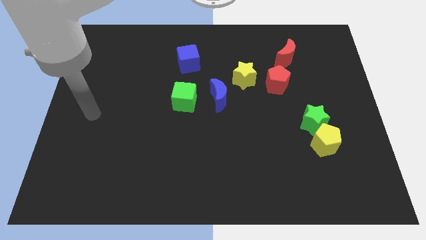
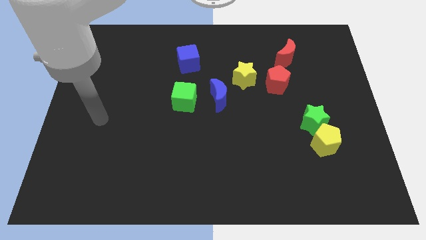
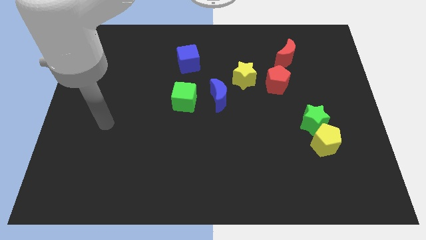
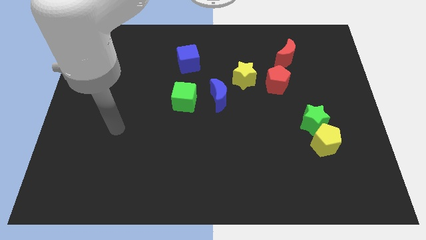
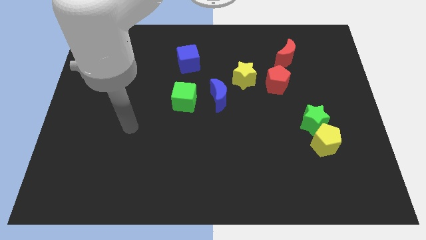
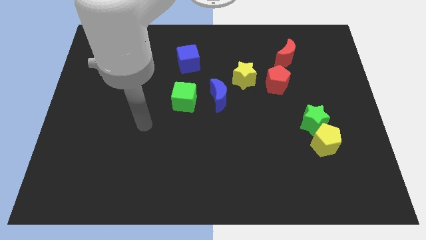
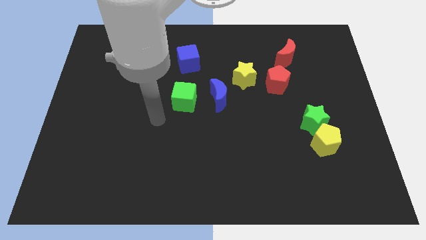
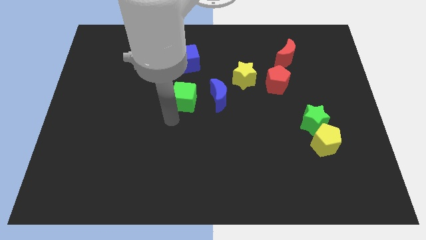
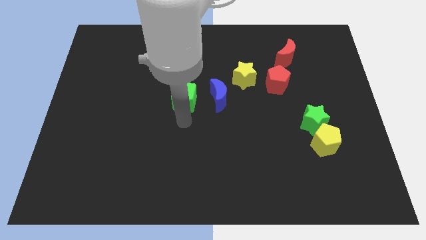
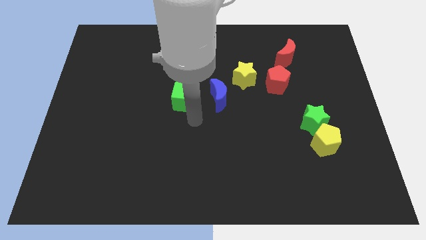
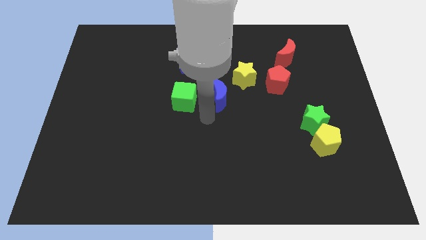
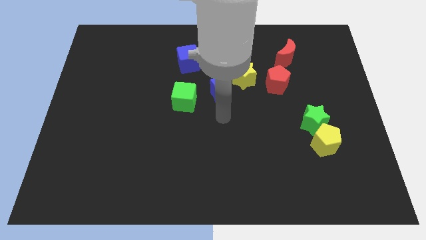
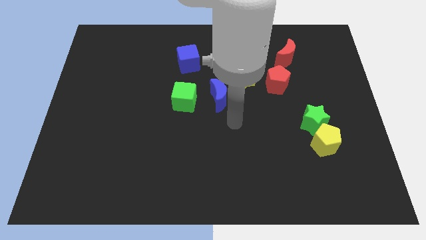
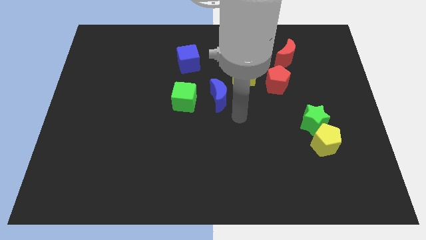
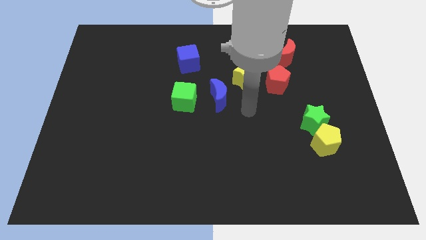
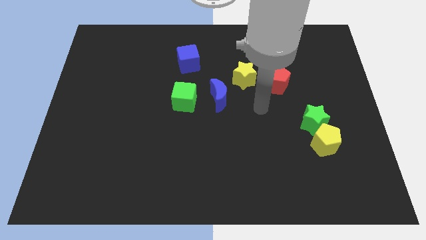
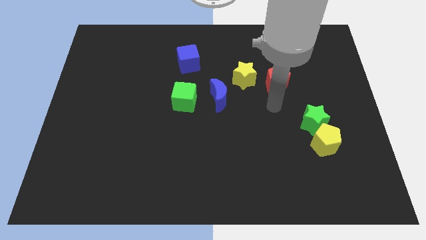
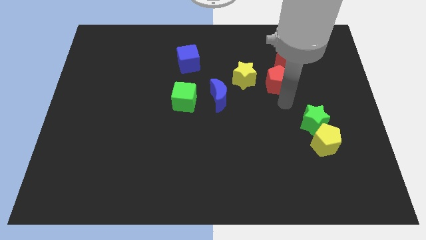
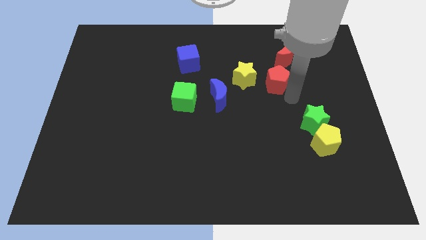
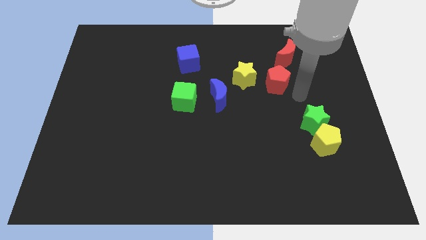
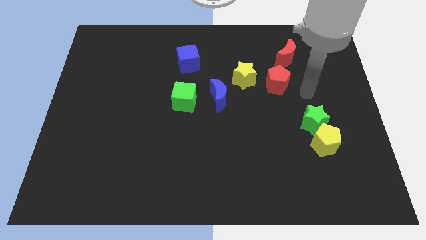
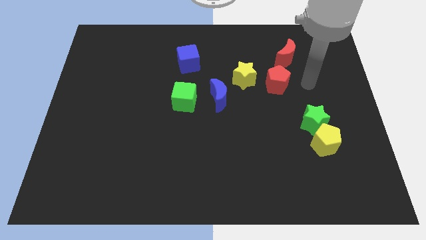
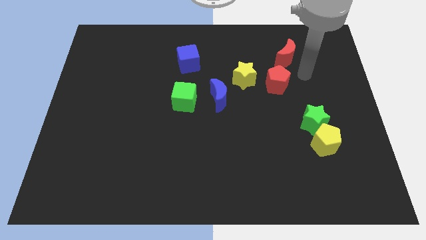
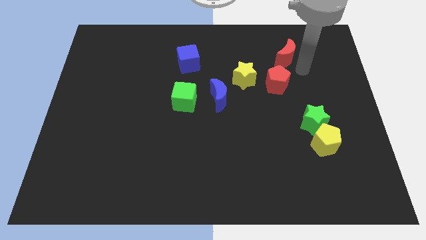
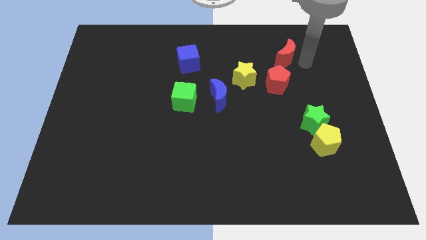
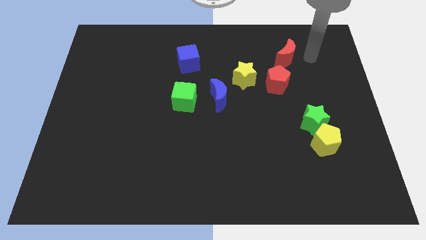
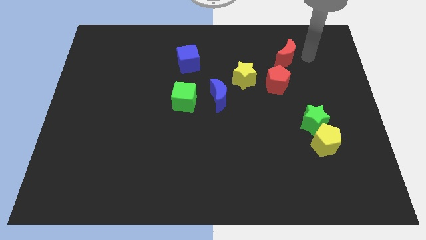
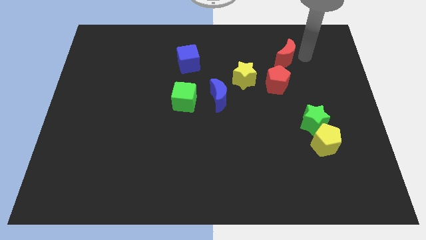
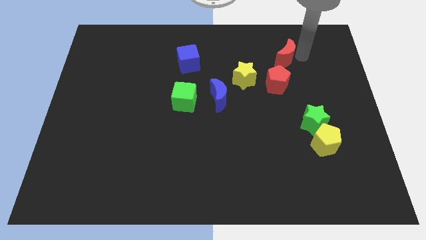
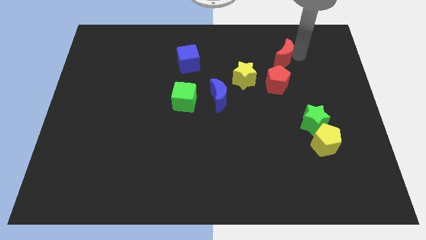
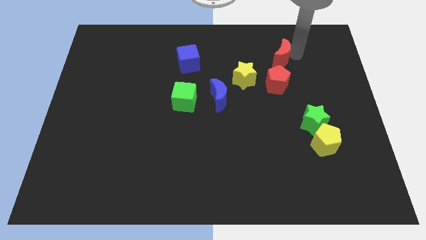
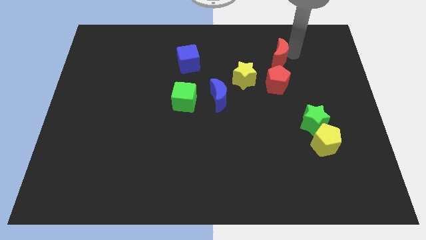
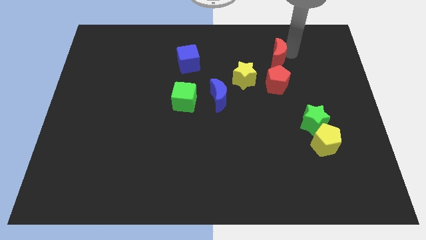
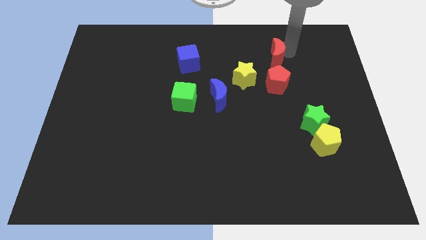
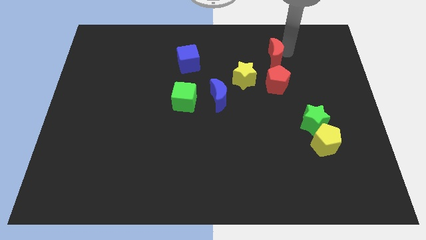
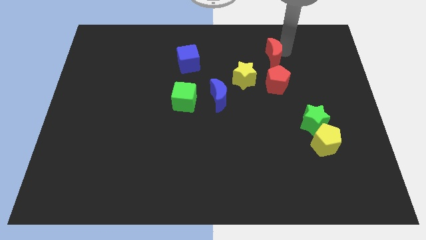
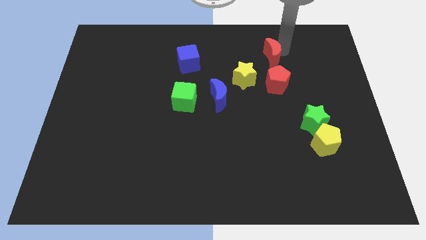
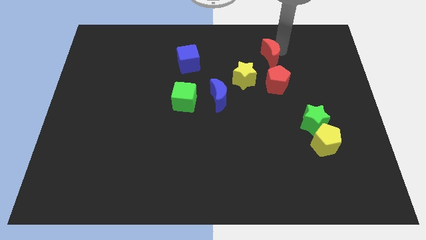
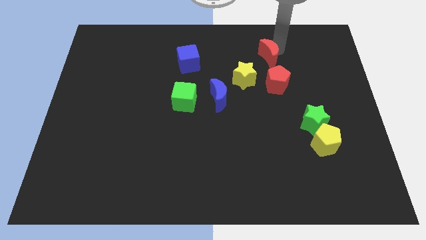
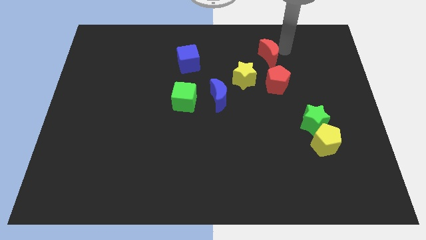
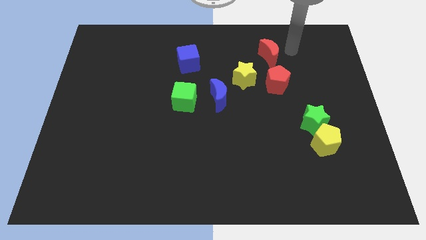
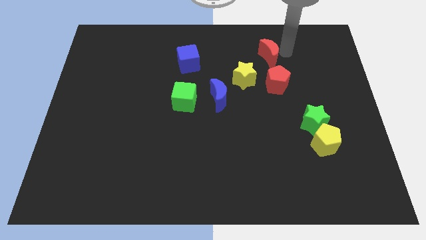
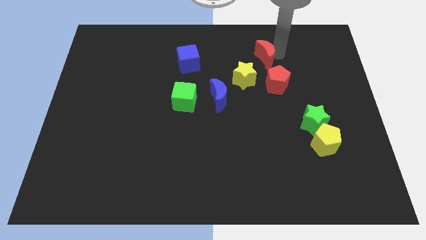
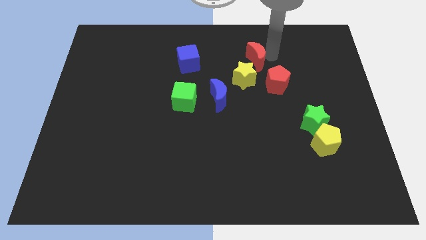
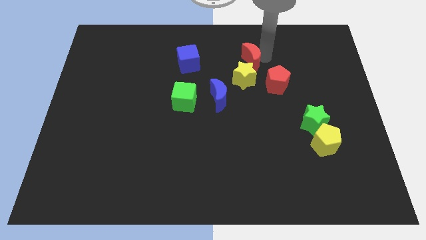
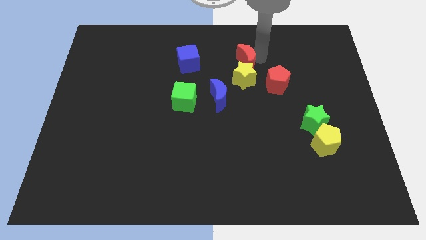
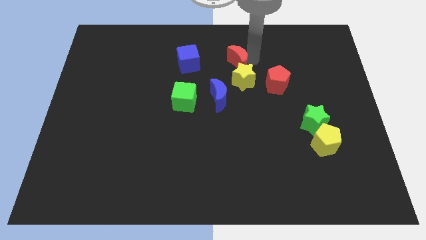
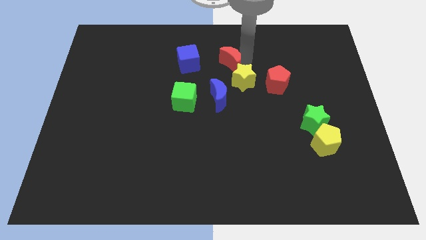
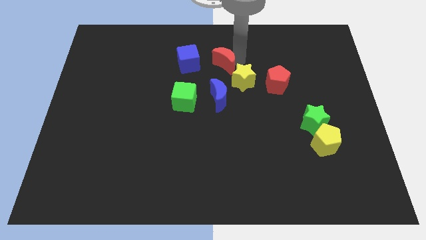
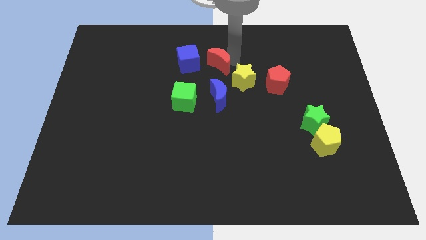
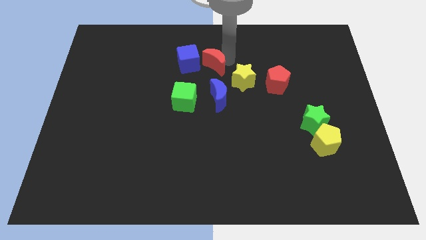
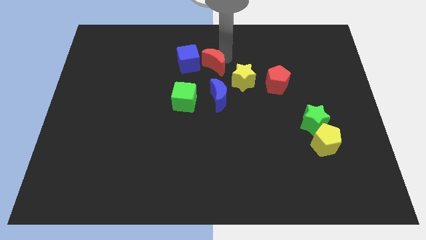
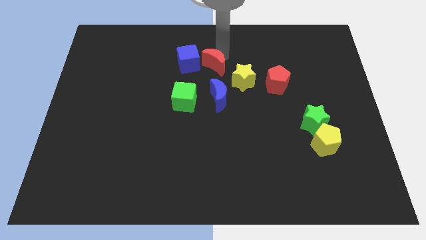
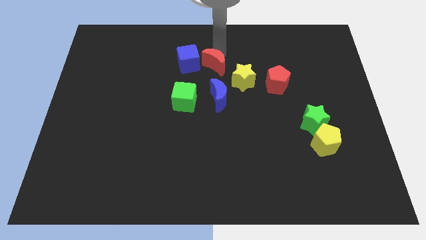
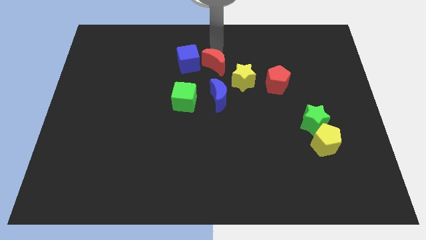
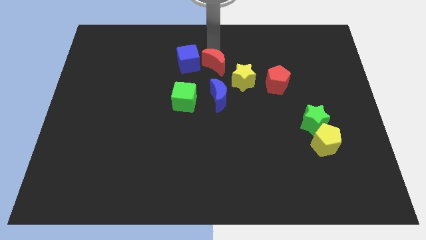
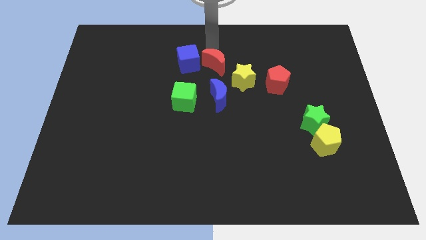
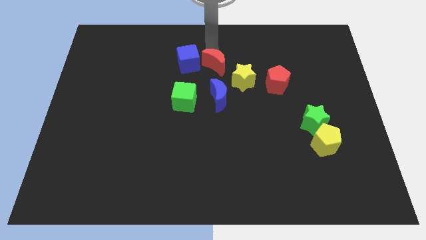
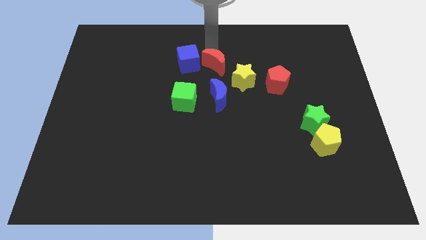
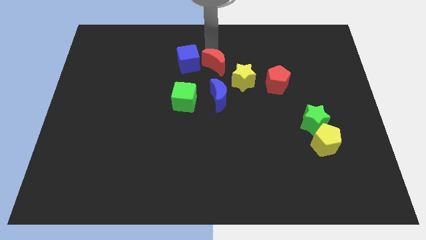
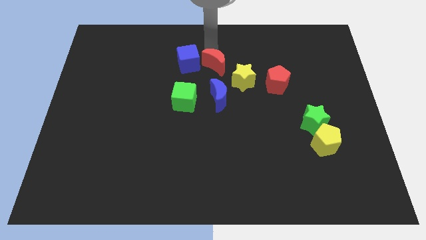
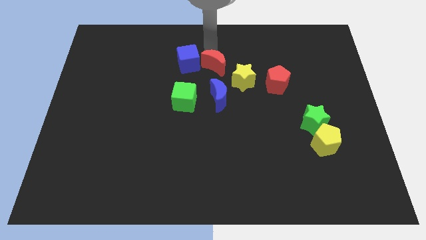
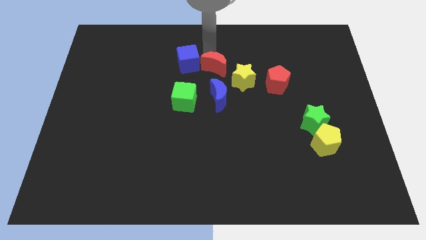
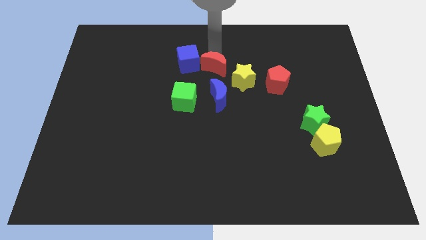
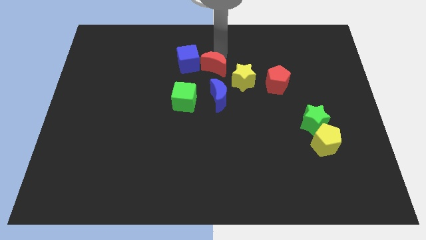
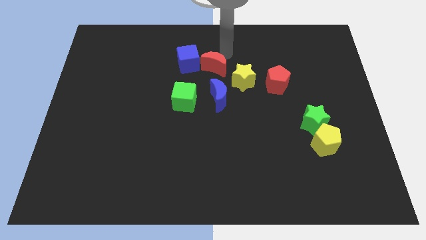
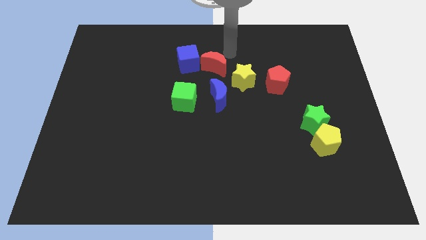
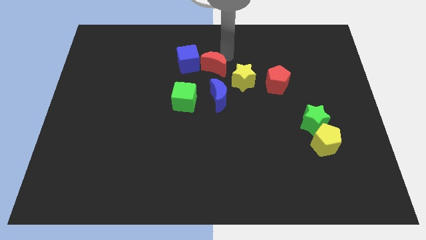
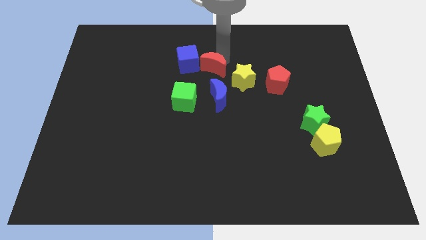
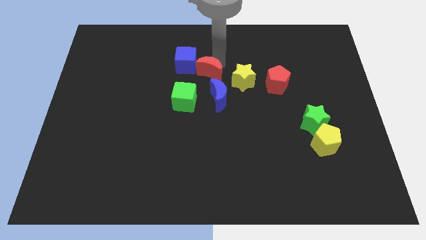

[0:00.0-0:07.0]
move the red moon to the top left side of the blue moon
